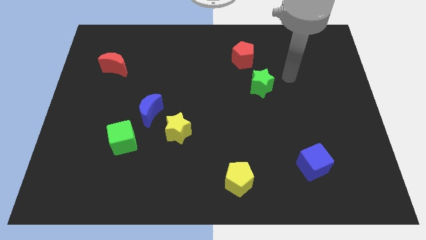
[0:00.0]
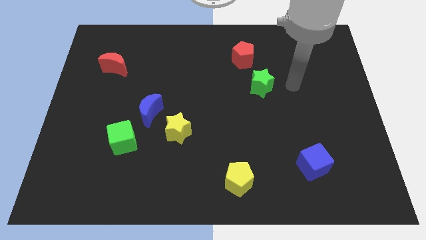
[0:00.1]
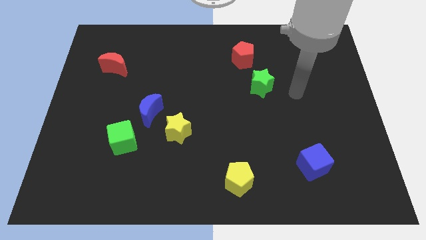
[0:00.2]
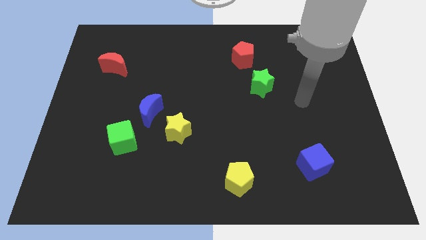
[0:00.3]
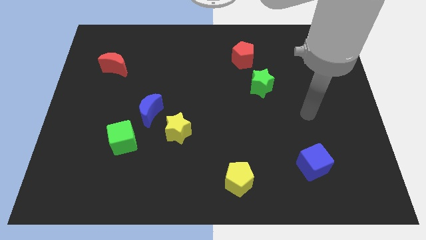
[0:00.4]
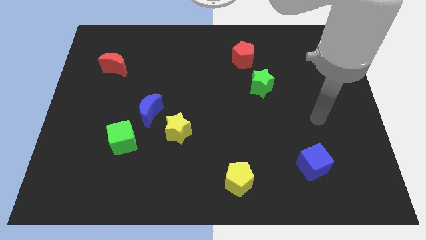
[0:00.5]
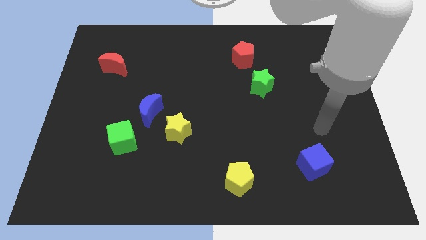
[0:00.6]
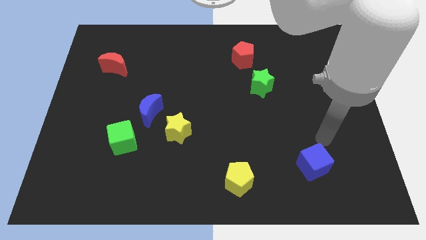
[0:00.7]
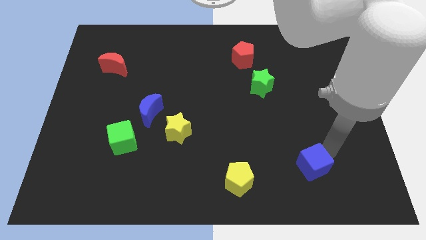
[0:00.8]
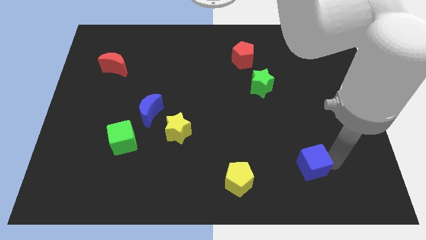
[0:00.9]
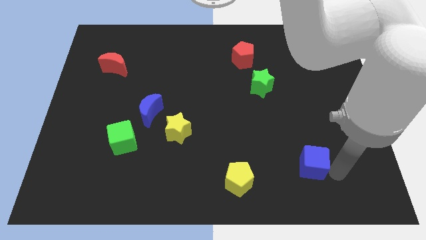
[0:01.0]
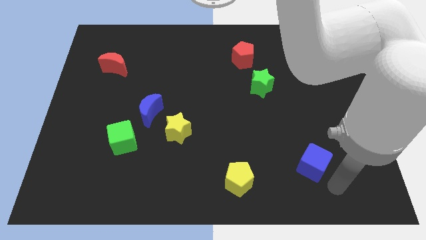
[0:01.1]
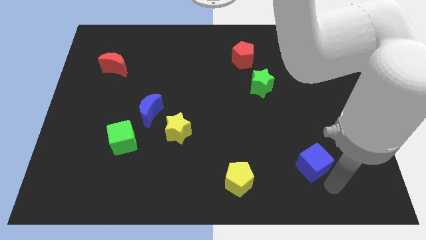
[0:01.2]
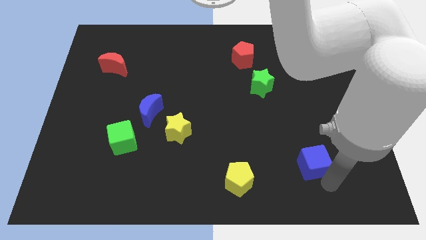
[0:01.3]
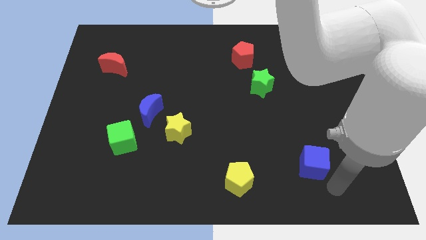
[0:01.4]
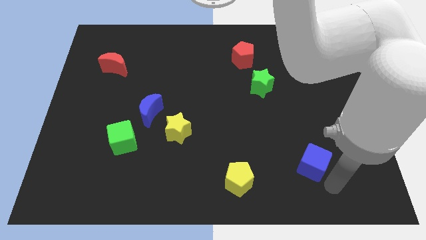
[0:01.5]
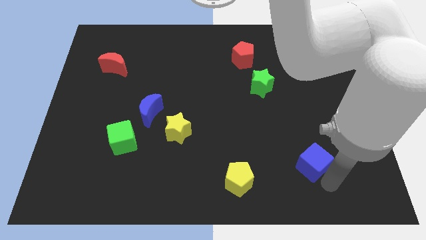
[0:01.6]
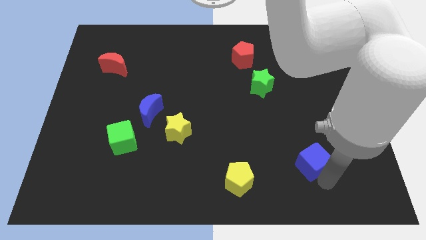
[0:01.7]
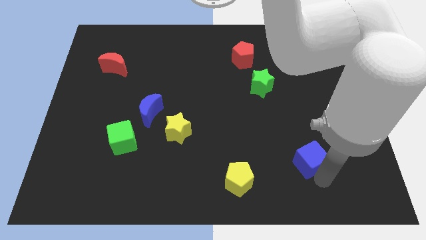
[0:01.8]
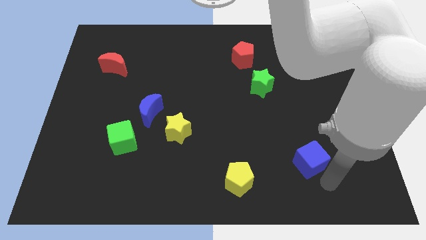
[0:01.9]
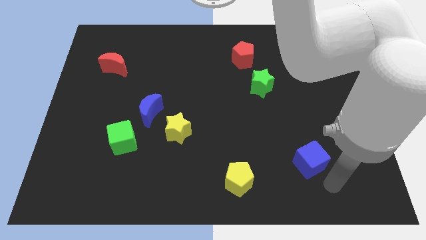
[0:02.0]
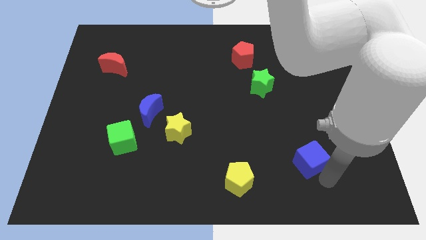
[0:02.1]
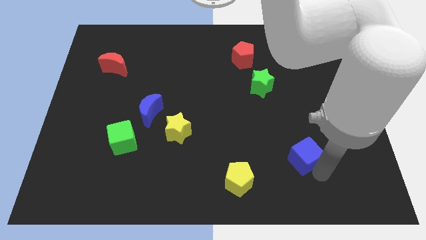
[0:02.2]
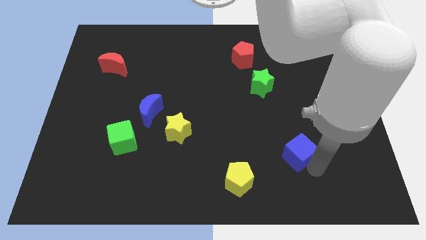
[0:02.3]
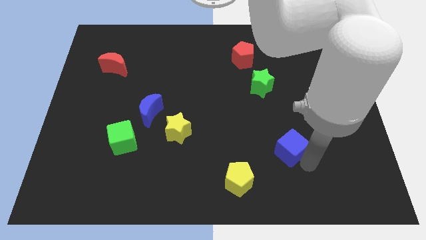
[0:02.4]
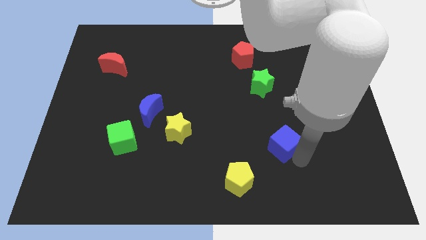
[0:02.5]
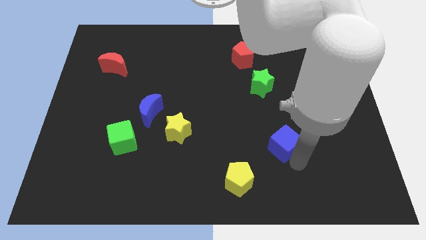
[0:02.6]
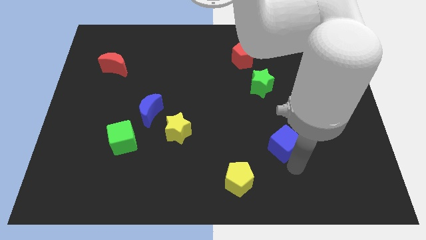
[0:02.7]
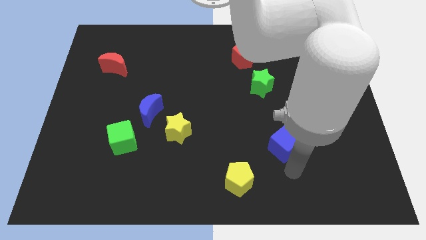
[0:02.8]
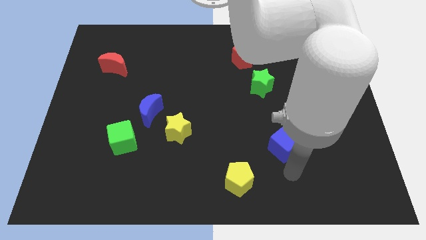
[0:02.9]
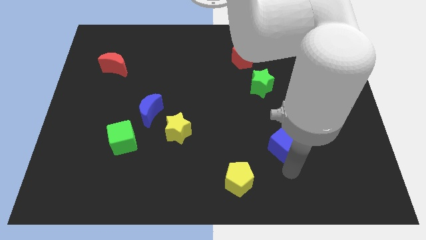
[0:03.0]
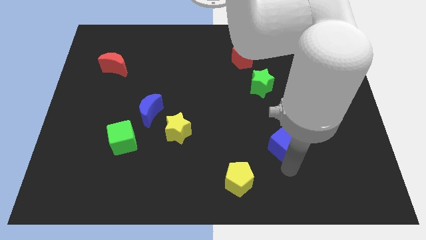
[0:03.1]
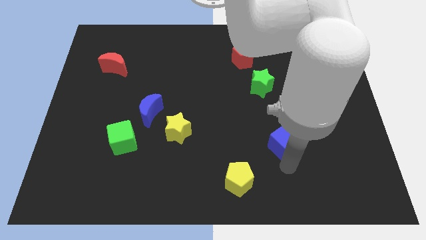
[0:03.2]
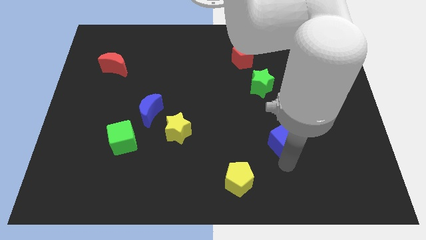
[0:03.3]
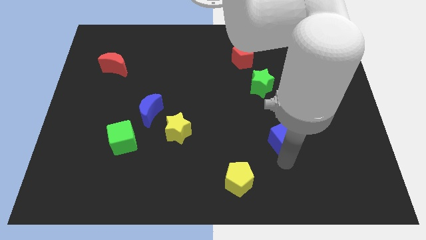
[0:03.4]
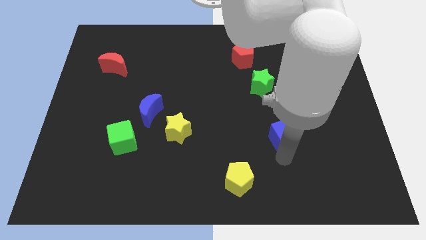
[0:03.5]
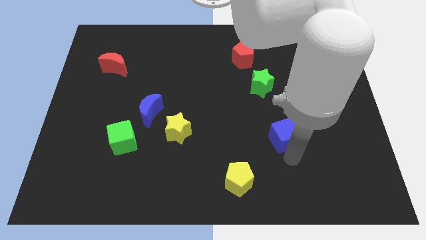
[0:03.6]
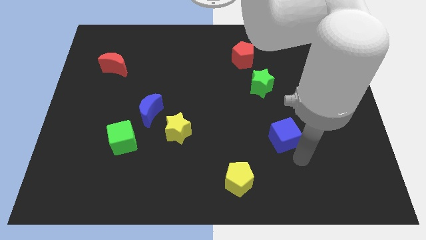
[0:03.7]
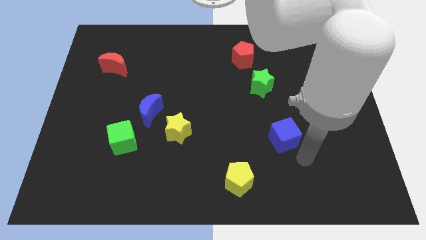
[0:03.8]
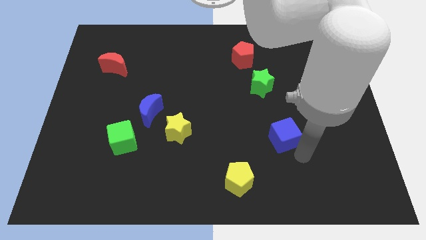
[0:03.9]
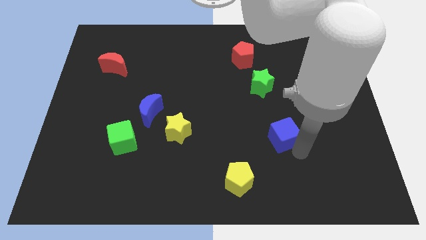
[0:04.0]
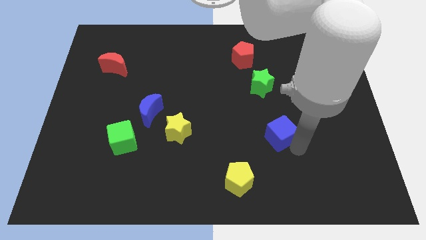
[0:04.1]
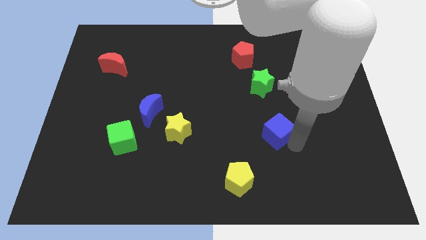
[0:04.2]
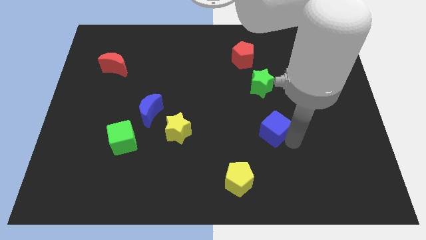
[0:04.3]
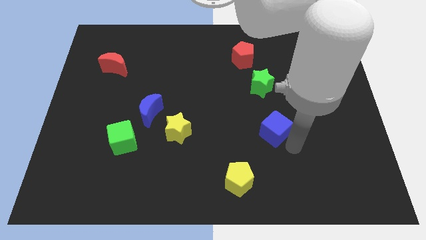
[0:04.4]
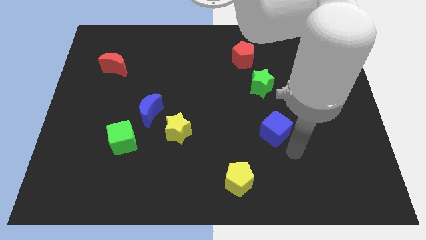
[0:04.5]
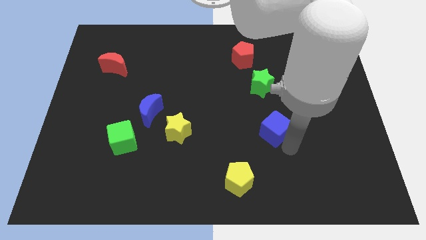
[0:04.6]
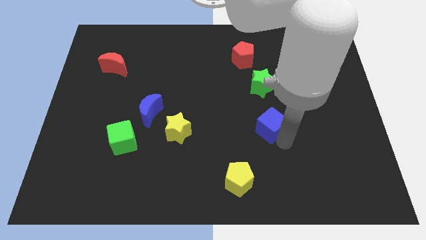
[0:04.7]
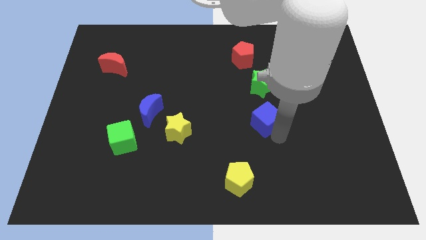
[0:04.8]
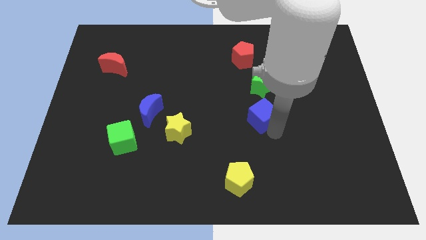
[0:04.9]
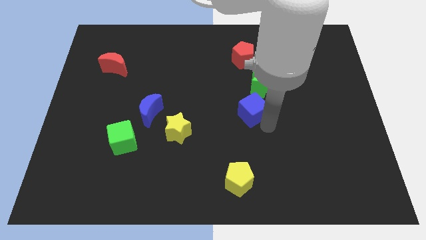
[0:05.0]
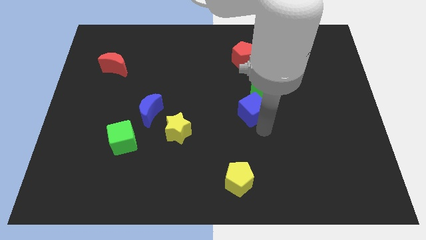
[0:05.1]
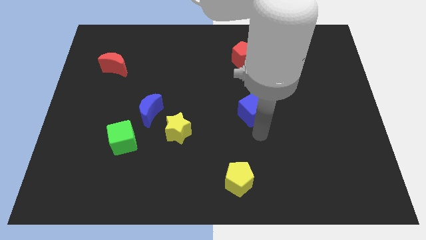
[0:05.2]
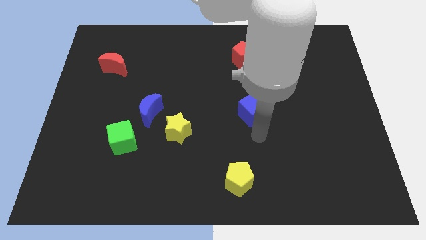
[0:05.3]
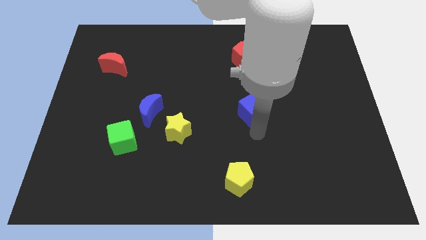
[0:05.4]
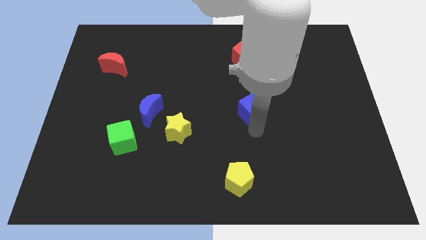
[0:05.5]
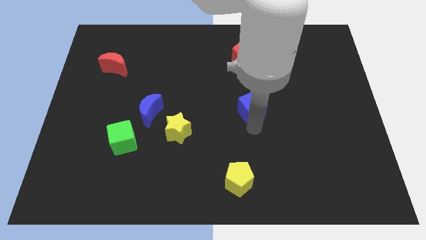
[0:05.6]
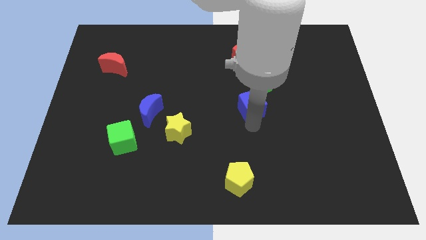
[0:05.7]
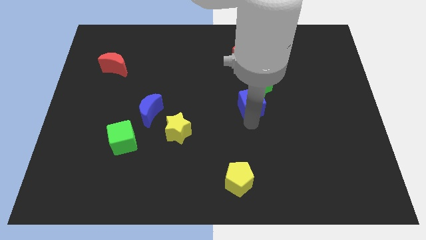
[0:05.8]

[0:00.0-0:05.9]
slide the blue cube below the red pentagon
